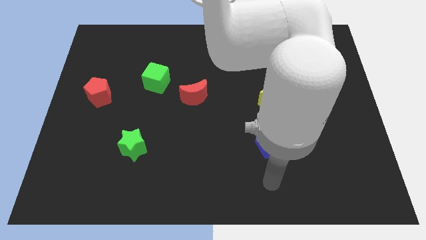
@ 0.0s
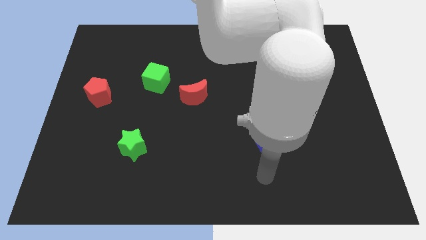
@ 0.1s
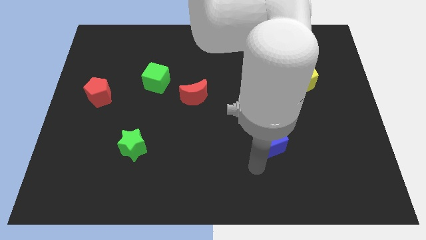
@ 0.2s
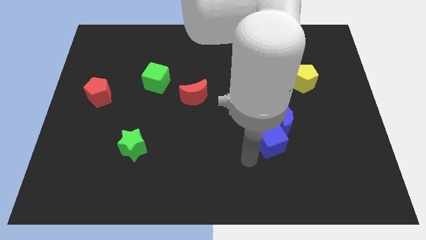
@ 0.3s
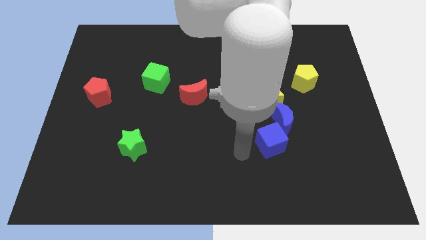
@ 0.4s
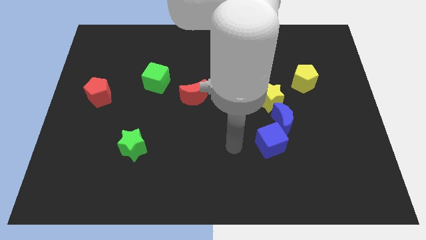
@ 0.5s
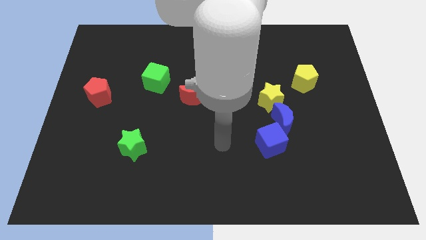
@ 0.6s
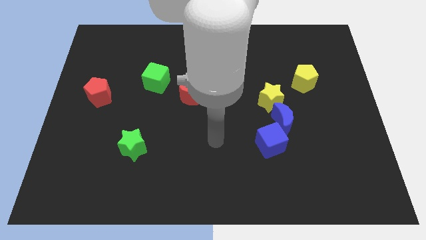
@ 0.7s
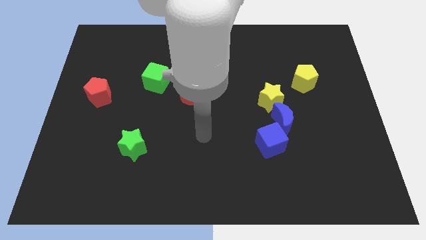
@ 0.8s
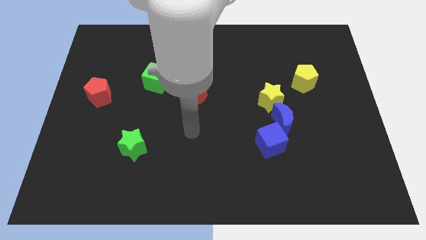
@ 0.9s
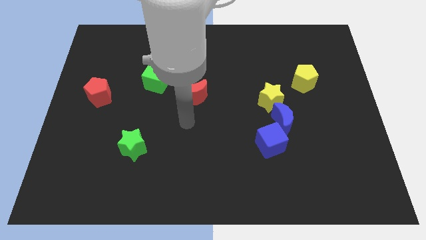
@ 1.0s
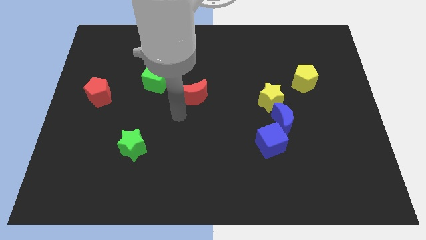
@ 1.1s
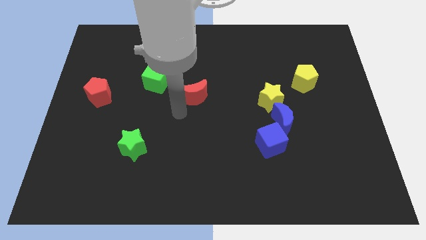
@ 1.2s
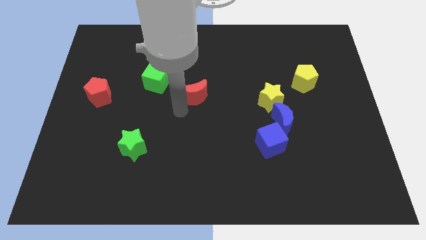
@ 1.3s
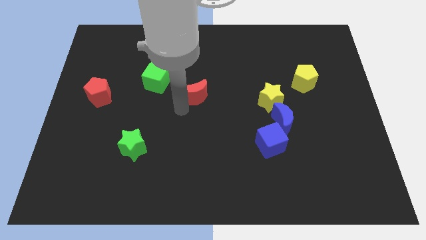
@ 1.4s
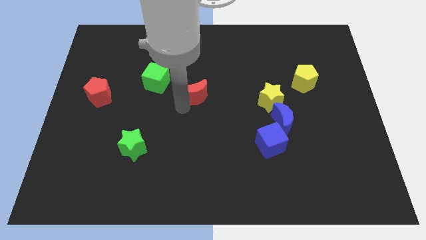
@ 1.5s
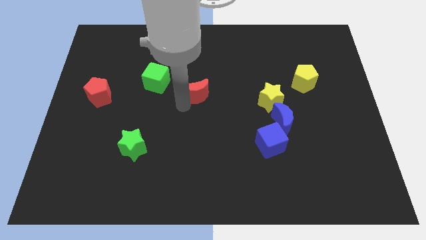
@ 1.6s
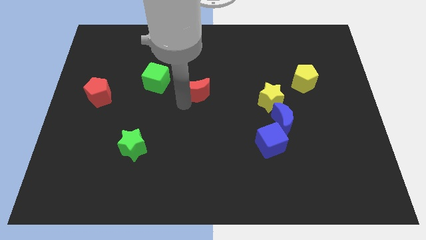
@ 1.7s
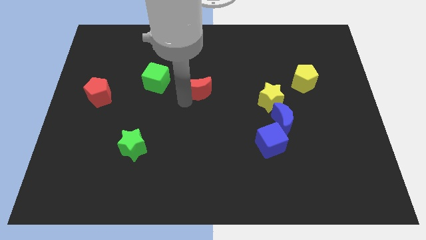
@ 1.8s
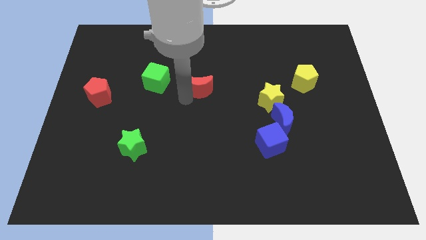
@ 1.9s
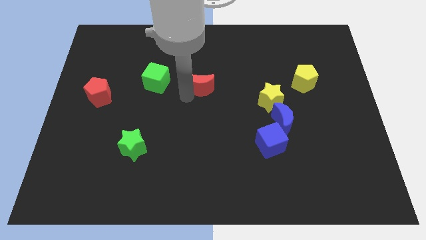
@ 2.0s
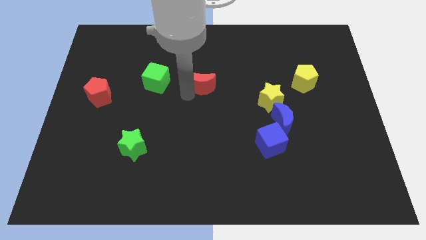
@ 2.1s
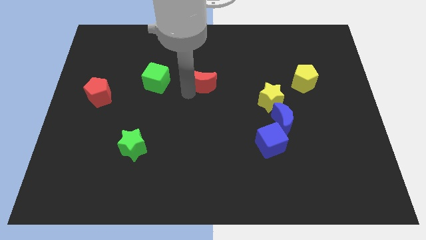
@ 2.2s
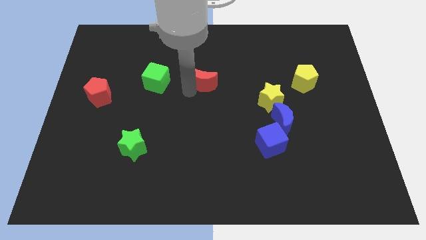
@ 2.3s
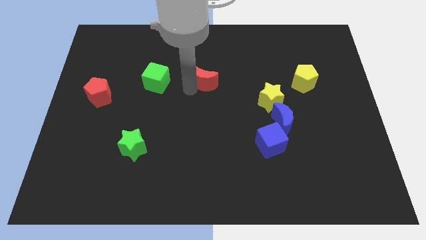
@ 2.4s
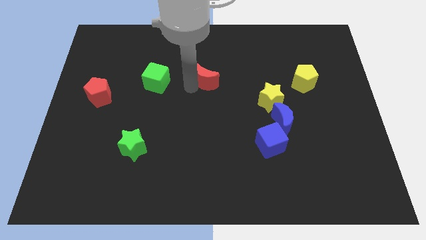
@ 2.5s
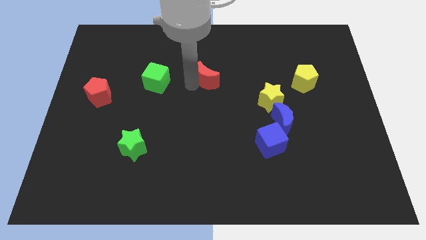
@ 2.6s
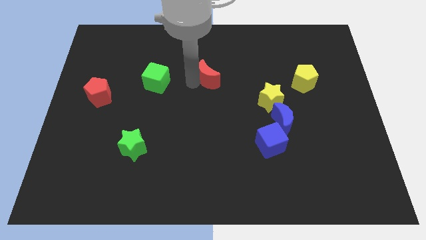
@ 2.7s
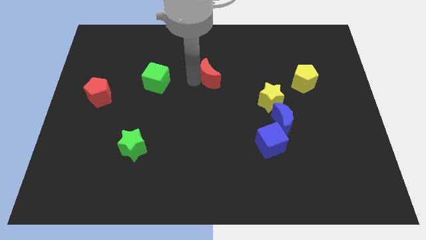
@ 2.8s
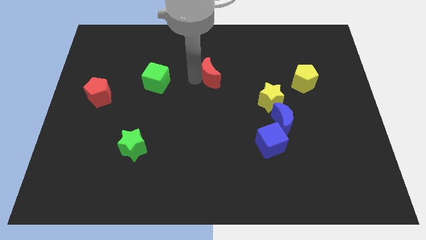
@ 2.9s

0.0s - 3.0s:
slightly push the red moon up and then right

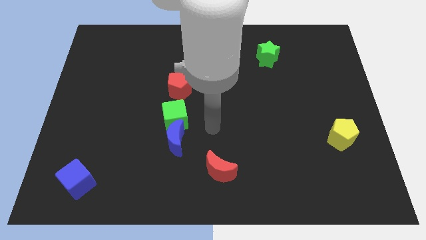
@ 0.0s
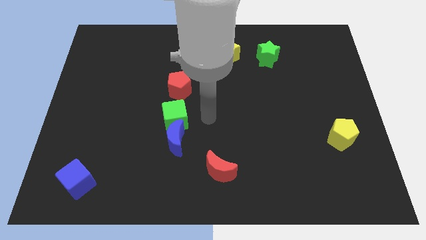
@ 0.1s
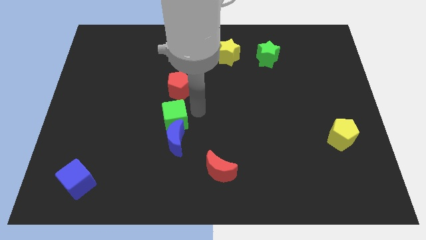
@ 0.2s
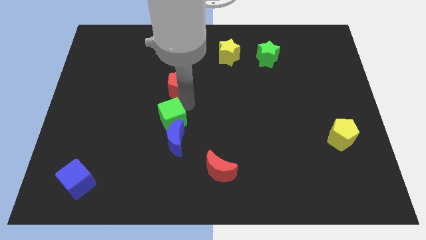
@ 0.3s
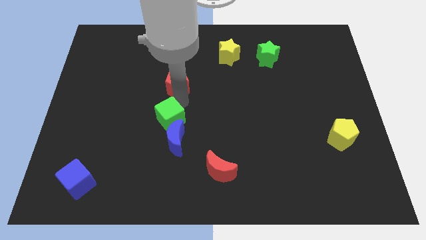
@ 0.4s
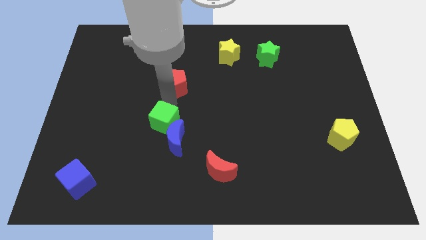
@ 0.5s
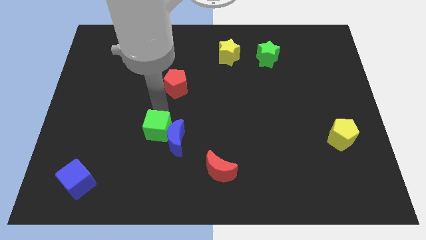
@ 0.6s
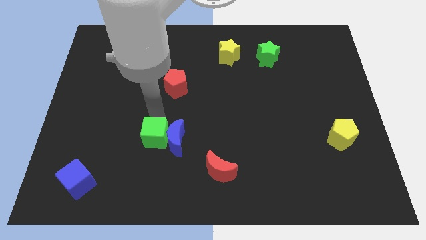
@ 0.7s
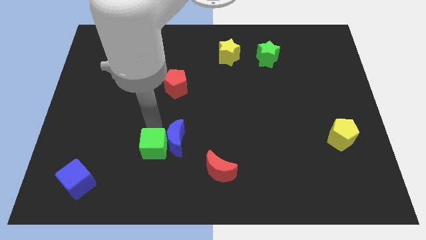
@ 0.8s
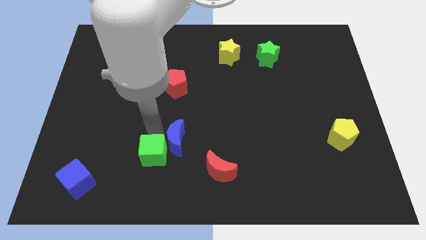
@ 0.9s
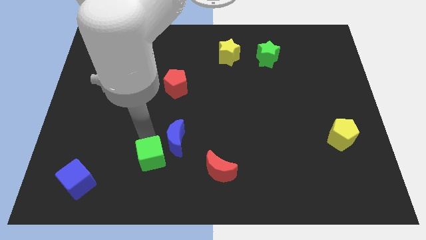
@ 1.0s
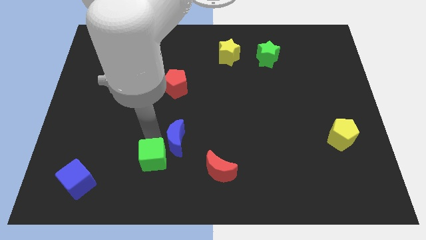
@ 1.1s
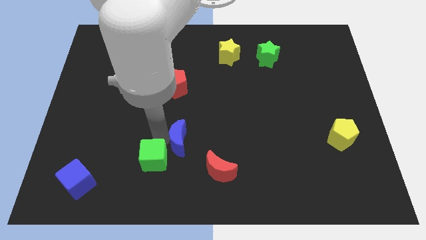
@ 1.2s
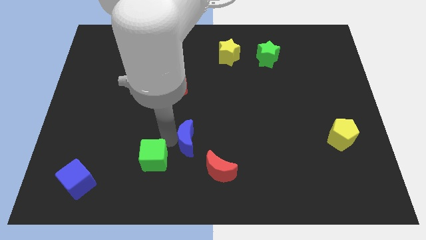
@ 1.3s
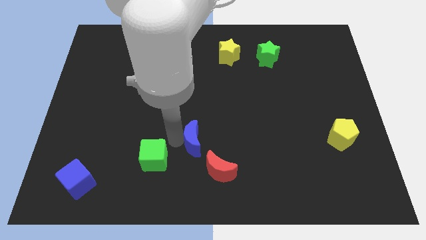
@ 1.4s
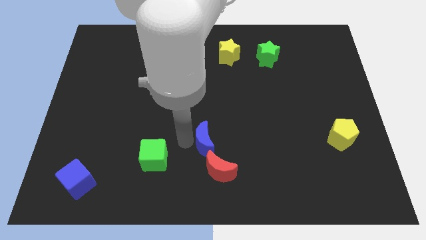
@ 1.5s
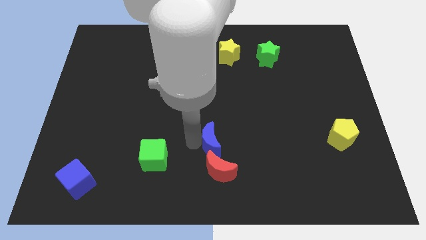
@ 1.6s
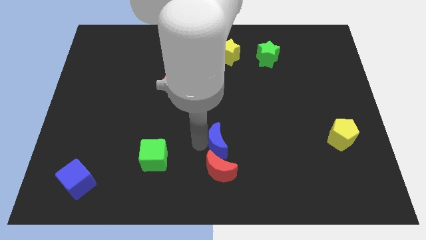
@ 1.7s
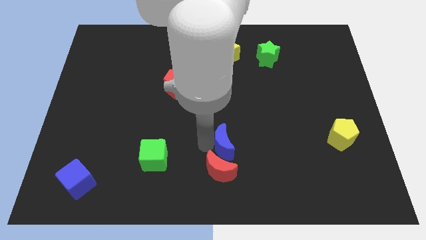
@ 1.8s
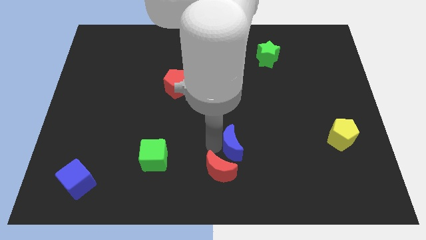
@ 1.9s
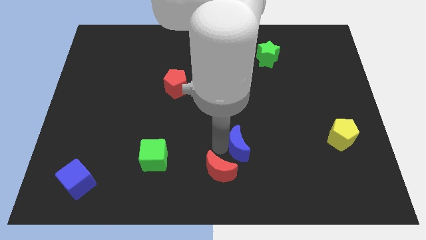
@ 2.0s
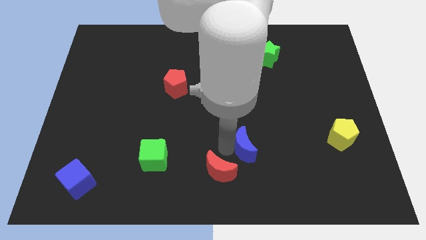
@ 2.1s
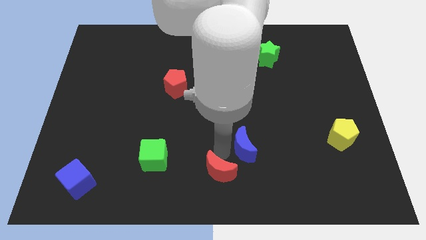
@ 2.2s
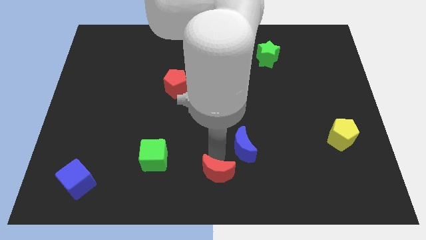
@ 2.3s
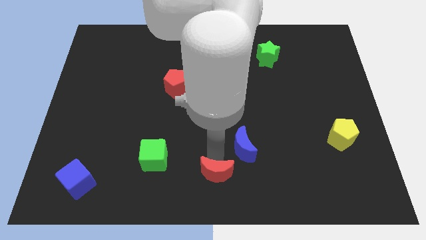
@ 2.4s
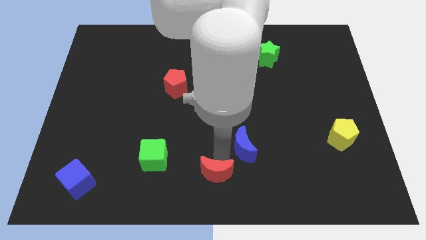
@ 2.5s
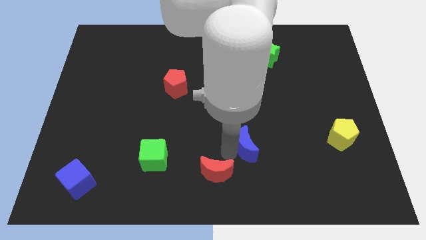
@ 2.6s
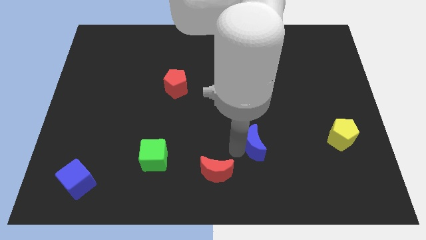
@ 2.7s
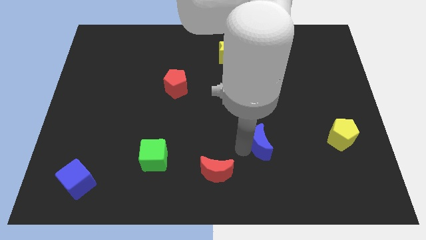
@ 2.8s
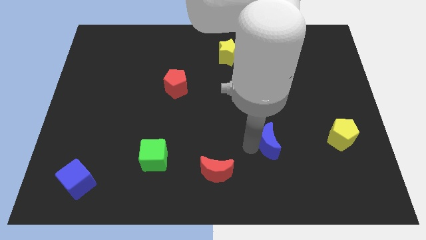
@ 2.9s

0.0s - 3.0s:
slide the blue moon to the right

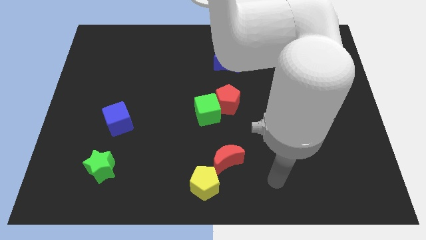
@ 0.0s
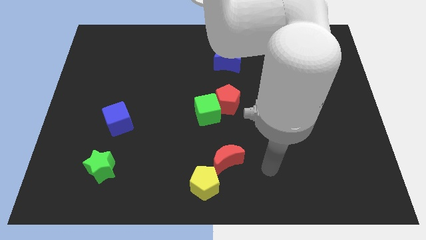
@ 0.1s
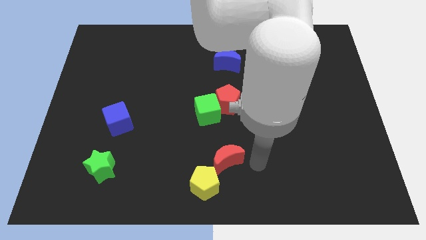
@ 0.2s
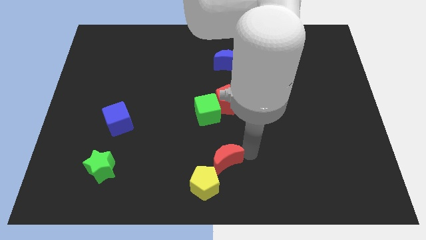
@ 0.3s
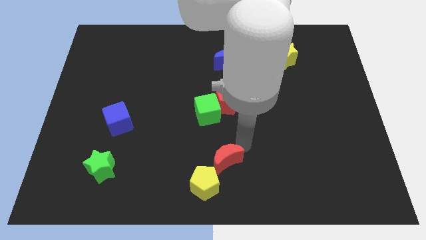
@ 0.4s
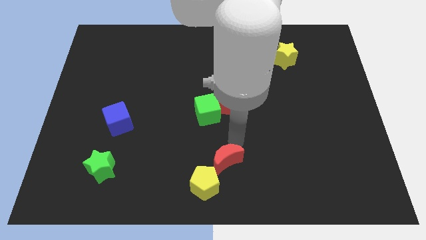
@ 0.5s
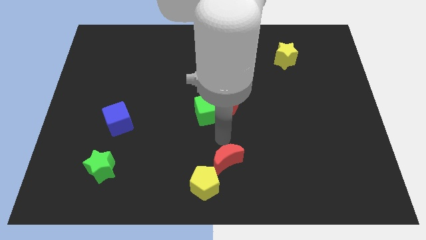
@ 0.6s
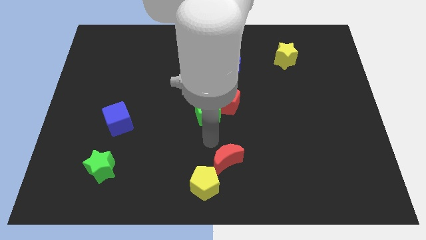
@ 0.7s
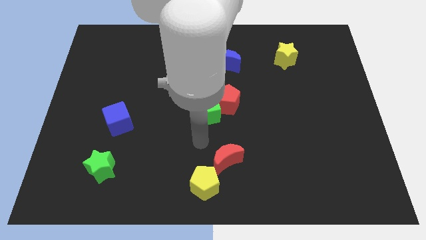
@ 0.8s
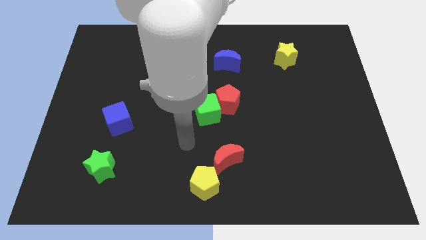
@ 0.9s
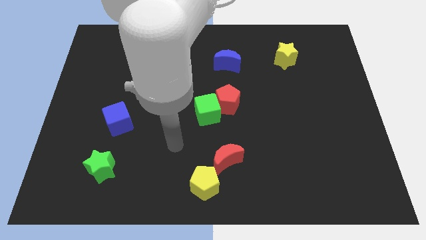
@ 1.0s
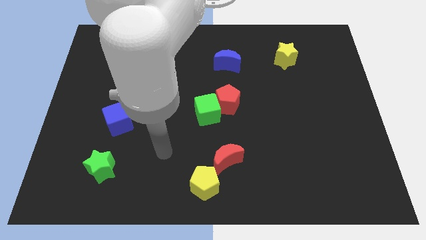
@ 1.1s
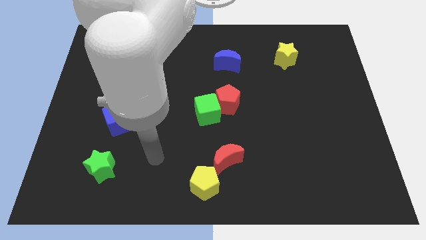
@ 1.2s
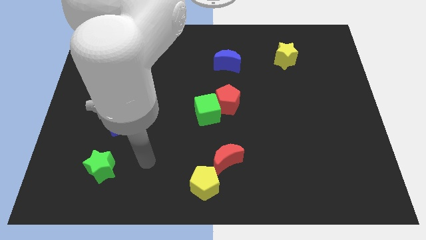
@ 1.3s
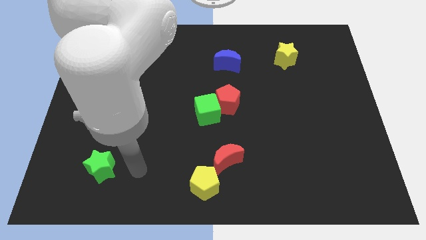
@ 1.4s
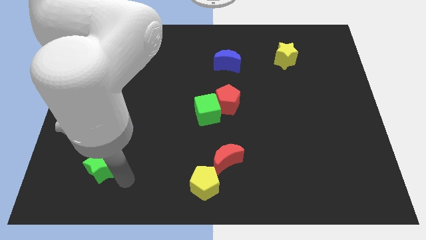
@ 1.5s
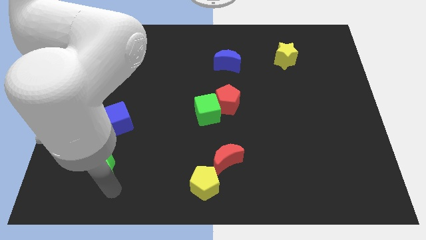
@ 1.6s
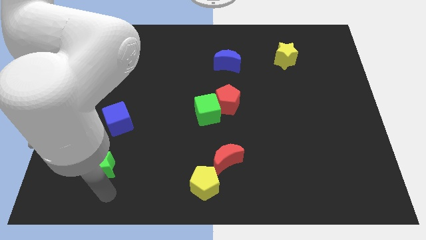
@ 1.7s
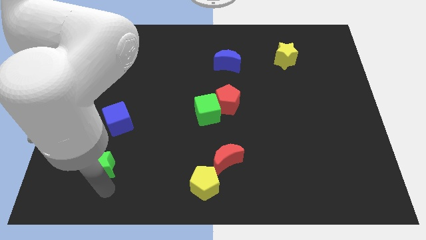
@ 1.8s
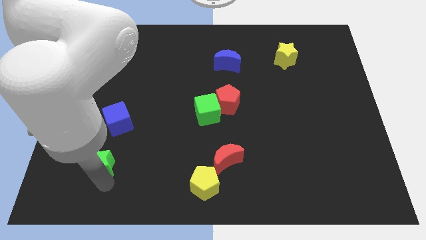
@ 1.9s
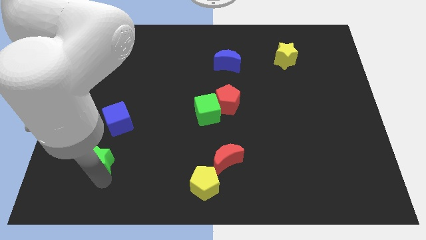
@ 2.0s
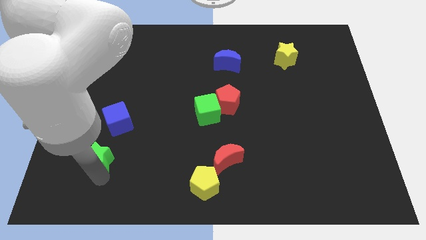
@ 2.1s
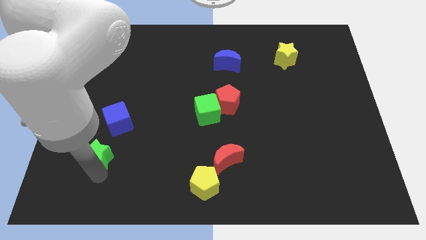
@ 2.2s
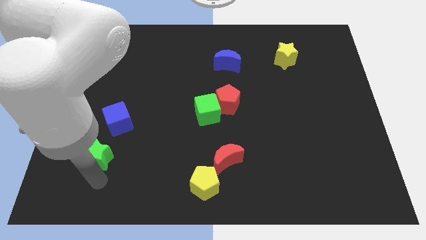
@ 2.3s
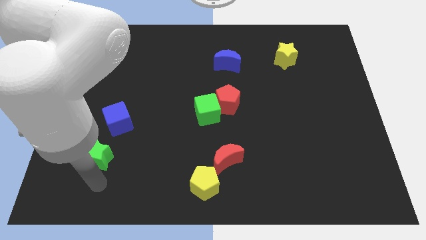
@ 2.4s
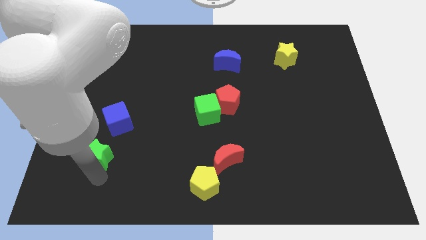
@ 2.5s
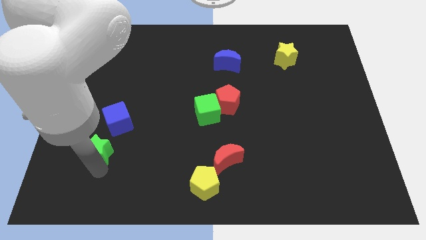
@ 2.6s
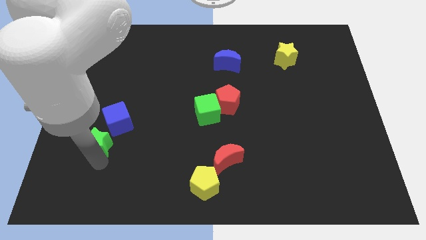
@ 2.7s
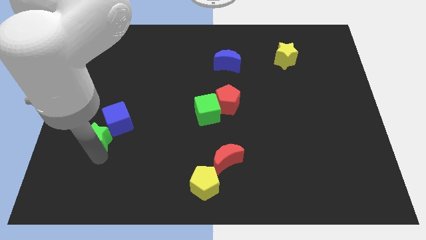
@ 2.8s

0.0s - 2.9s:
slightly move the green star up
